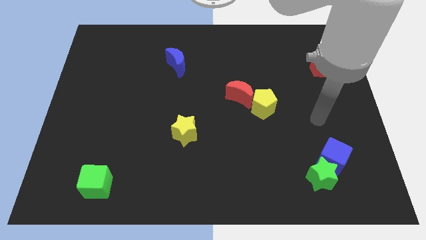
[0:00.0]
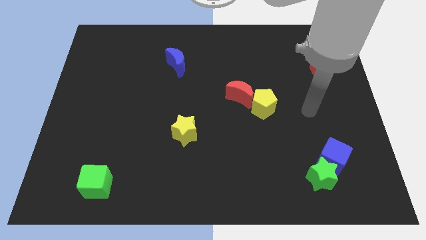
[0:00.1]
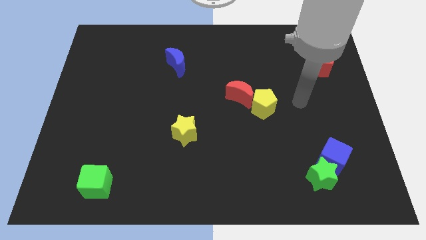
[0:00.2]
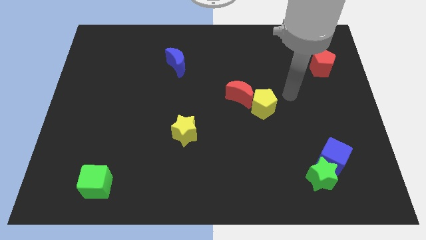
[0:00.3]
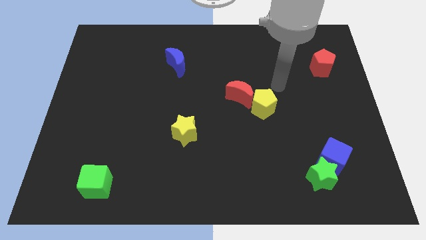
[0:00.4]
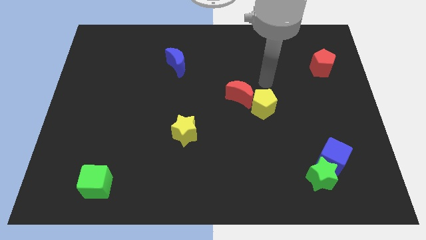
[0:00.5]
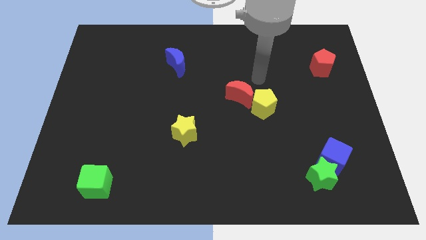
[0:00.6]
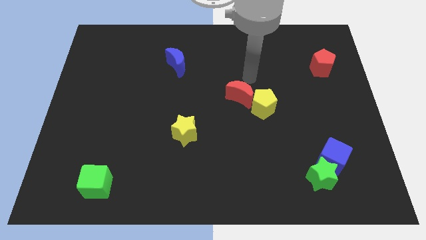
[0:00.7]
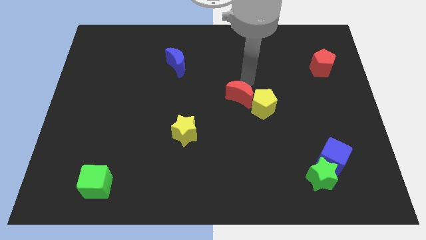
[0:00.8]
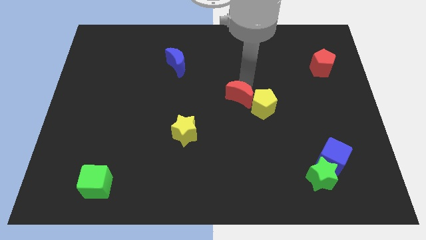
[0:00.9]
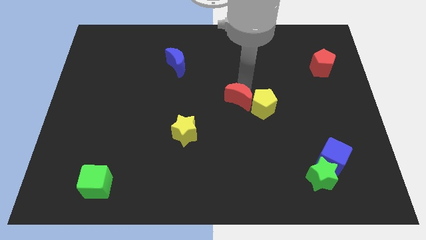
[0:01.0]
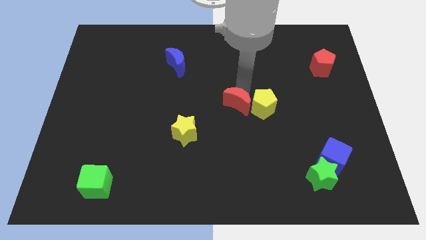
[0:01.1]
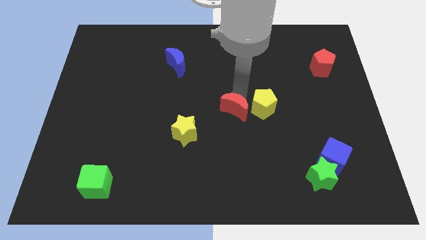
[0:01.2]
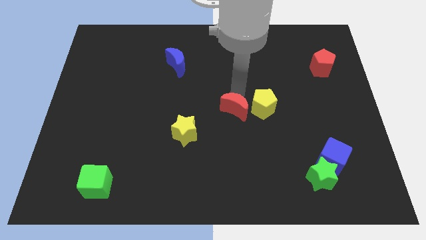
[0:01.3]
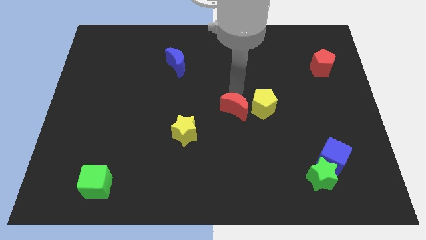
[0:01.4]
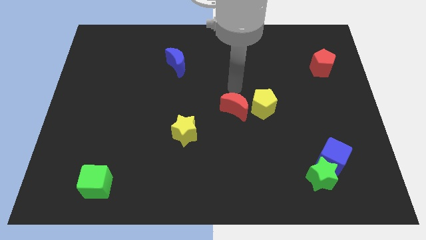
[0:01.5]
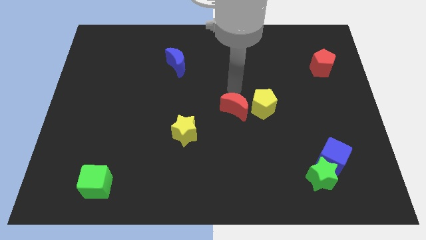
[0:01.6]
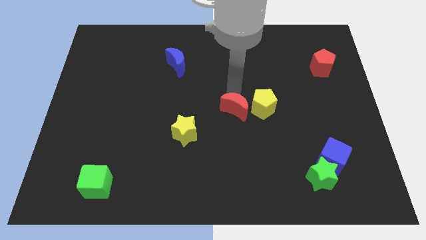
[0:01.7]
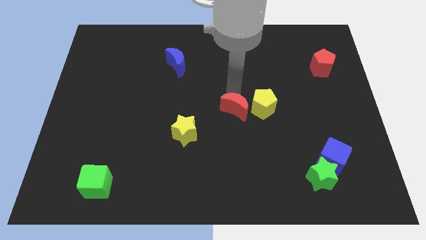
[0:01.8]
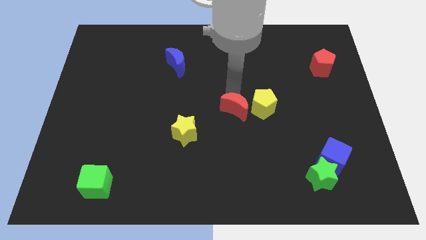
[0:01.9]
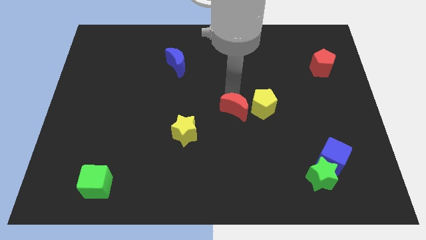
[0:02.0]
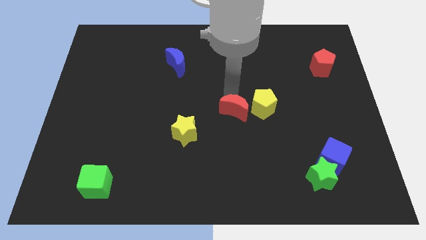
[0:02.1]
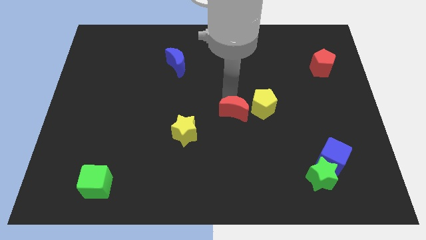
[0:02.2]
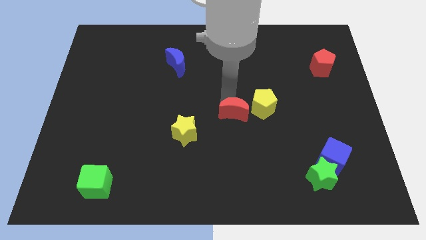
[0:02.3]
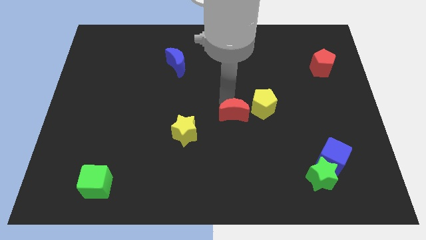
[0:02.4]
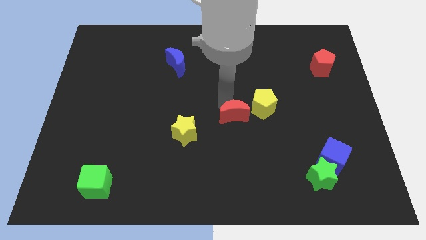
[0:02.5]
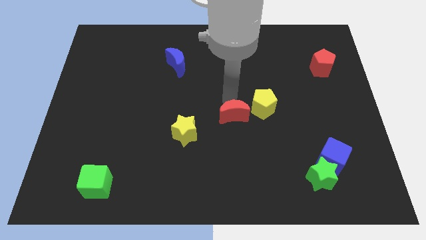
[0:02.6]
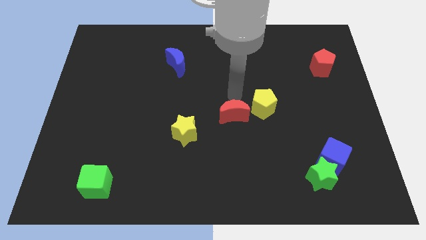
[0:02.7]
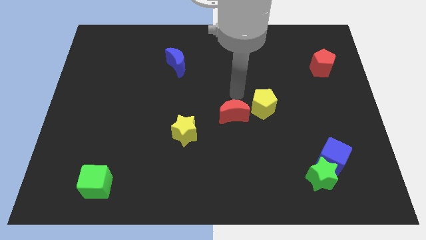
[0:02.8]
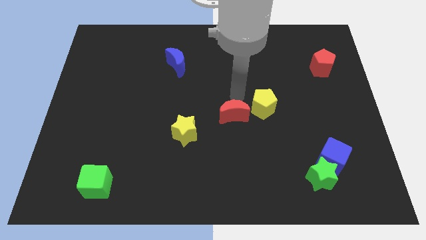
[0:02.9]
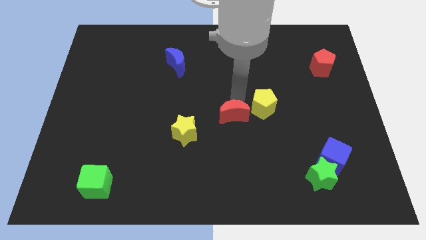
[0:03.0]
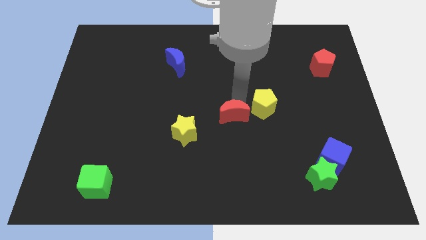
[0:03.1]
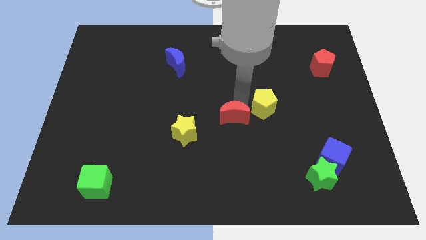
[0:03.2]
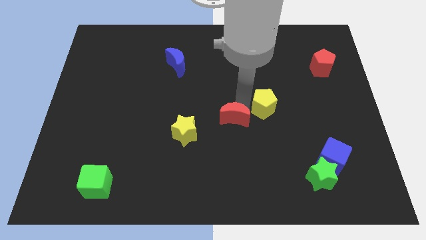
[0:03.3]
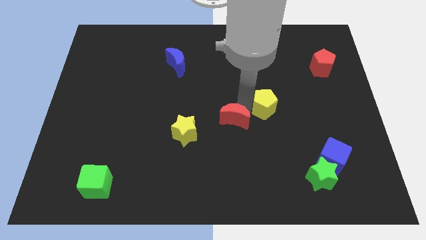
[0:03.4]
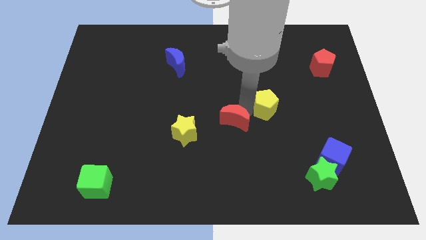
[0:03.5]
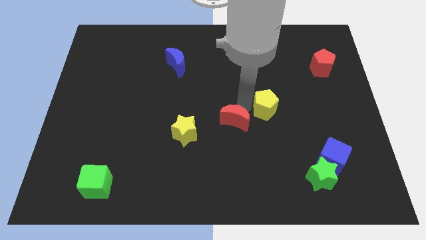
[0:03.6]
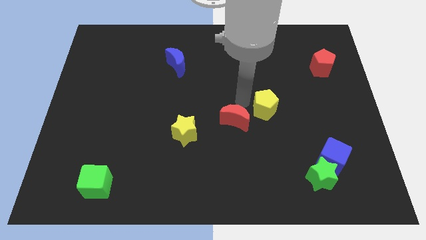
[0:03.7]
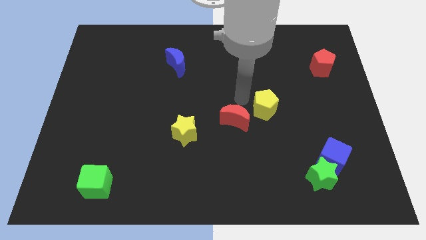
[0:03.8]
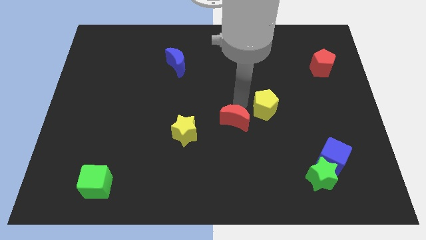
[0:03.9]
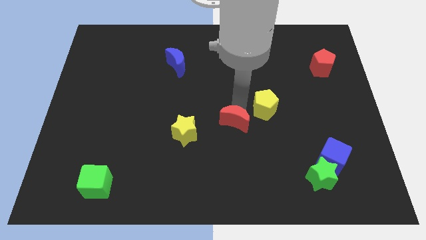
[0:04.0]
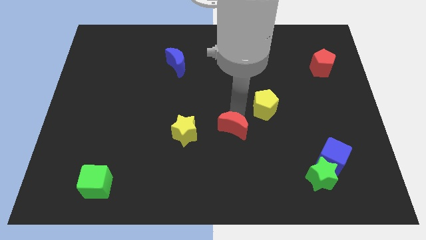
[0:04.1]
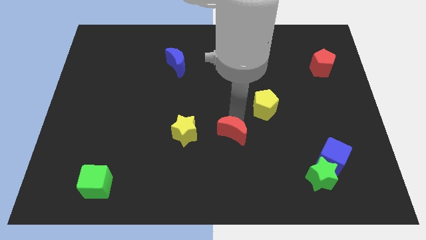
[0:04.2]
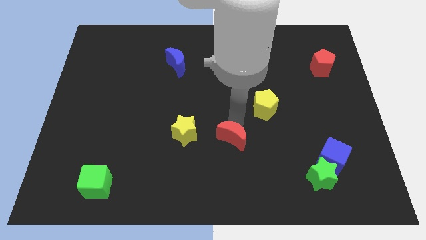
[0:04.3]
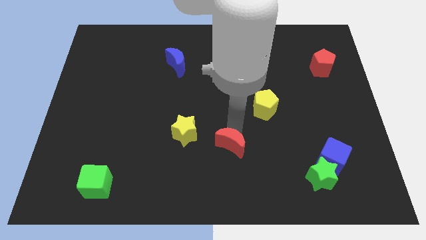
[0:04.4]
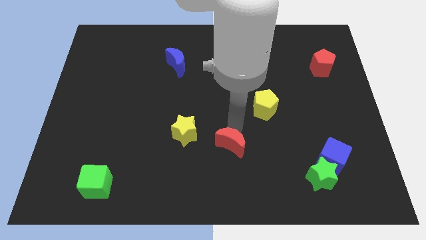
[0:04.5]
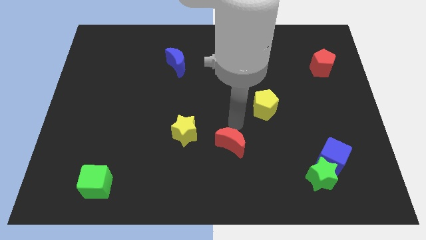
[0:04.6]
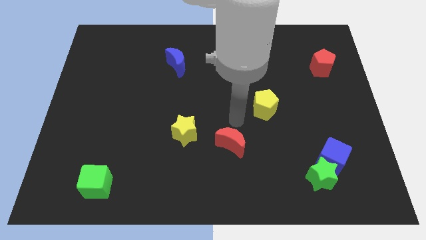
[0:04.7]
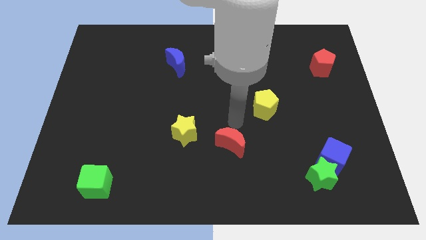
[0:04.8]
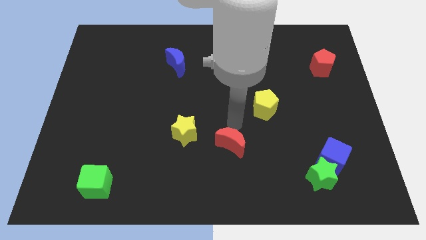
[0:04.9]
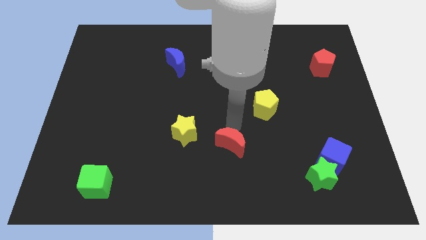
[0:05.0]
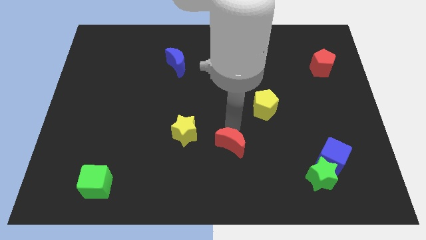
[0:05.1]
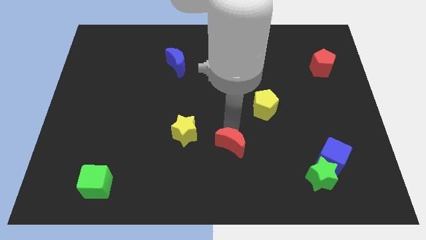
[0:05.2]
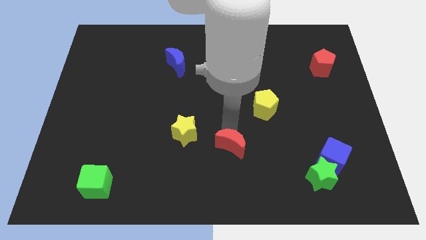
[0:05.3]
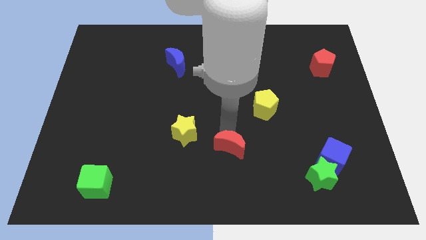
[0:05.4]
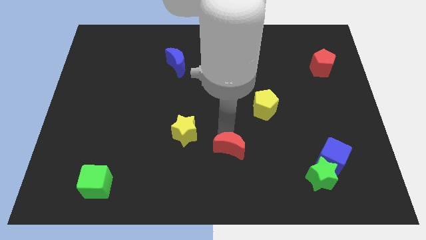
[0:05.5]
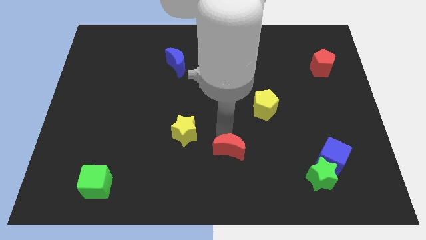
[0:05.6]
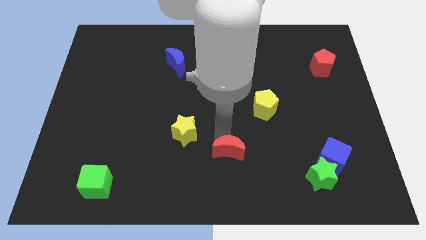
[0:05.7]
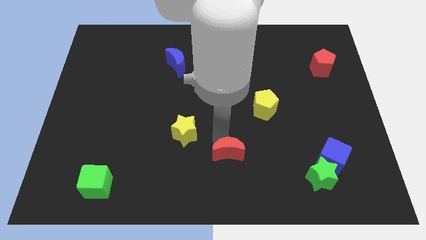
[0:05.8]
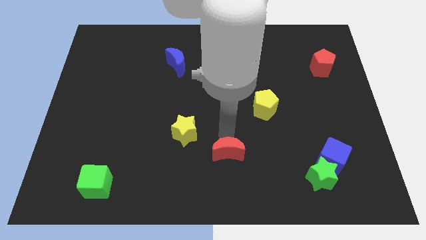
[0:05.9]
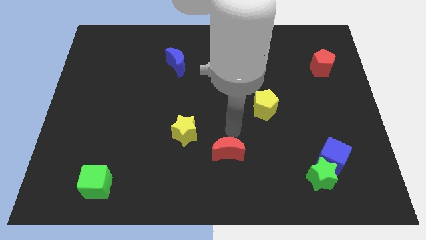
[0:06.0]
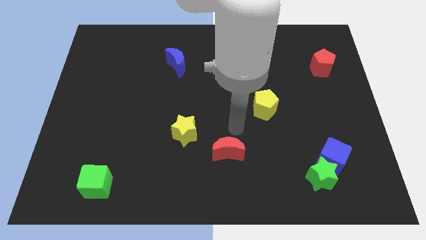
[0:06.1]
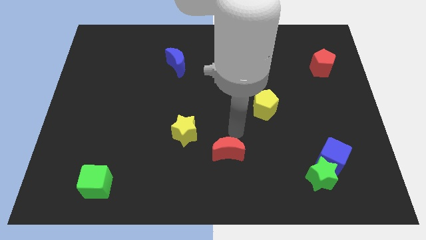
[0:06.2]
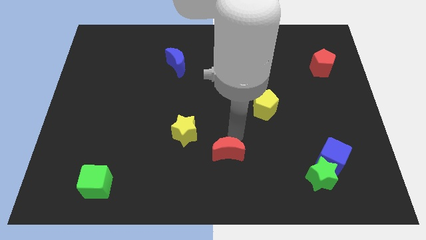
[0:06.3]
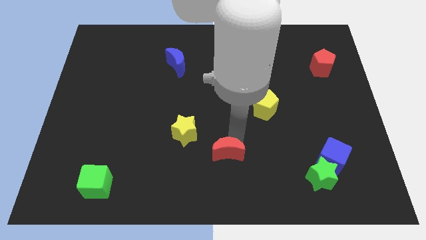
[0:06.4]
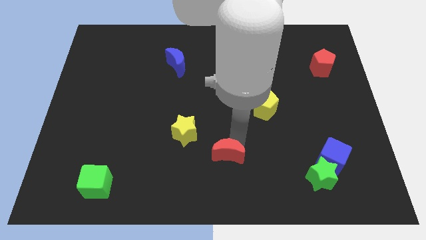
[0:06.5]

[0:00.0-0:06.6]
put the red moon to the bottom side

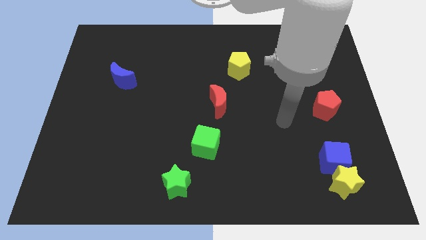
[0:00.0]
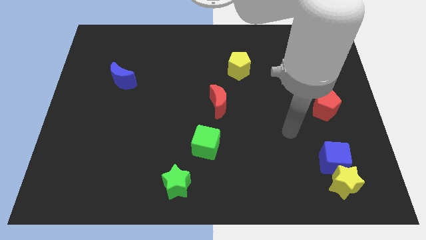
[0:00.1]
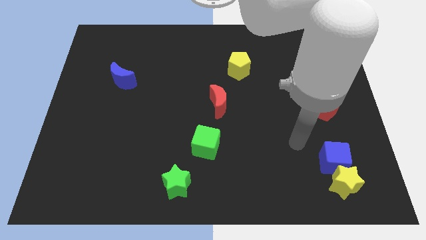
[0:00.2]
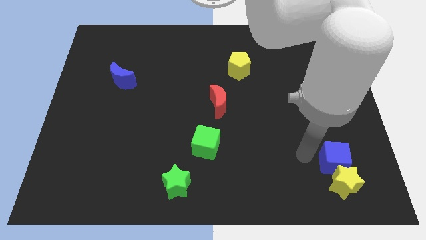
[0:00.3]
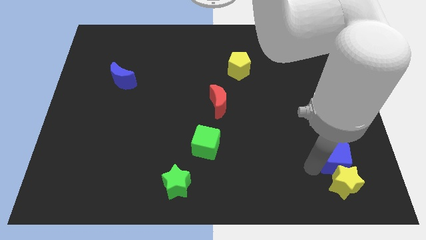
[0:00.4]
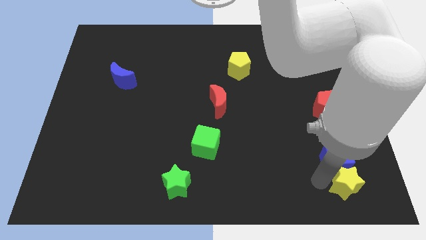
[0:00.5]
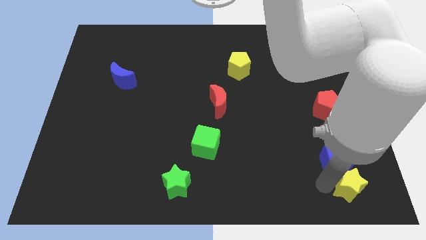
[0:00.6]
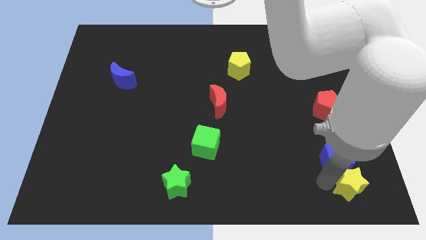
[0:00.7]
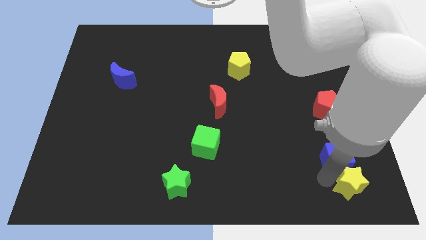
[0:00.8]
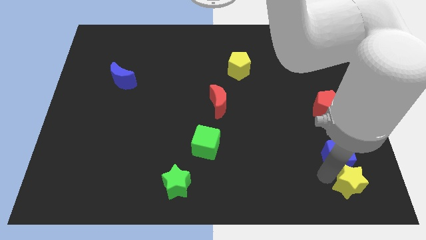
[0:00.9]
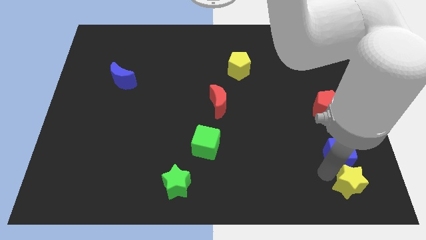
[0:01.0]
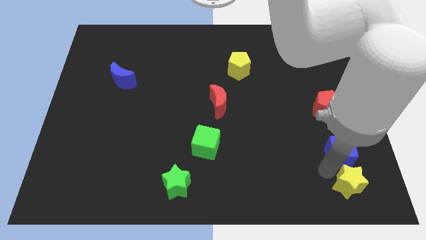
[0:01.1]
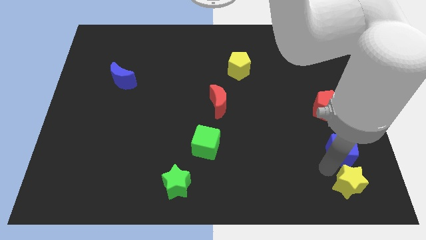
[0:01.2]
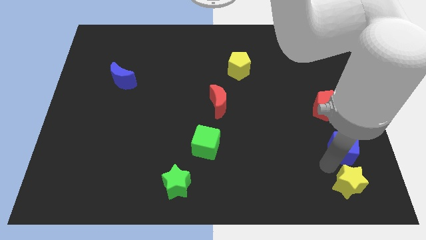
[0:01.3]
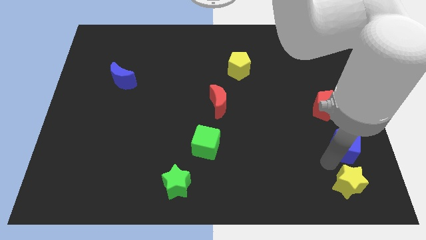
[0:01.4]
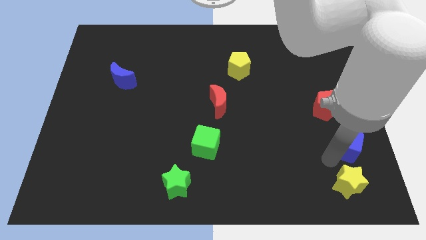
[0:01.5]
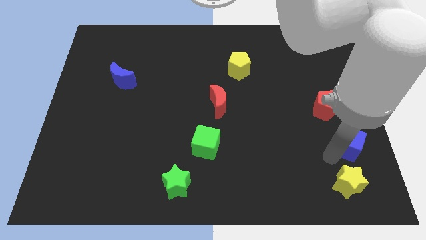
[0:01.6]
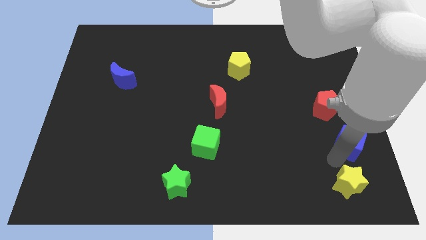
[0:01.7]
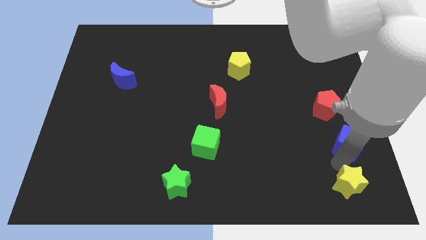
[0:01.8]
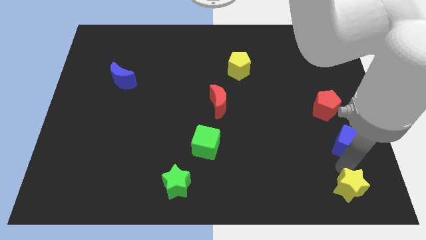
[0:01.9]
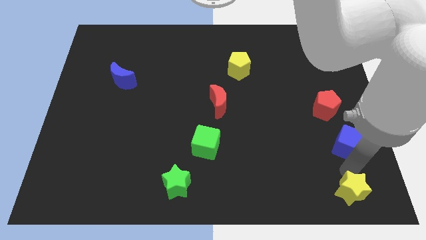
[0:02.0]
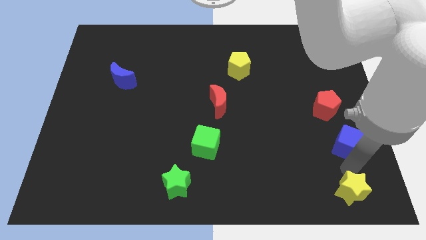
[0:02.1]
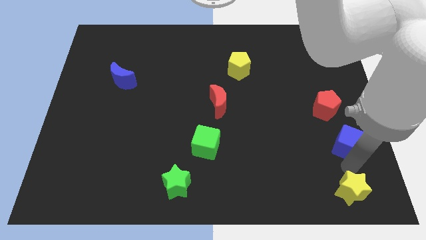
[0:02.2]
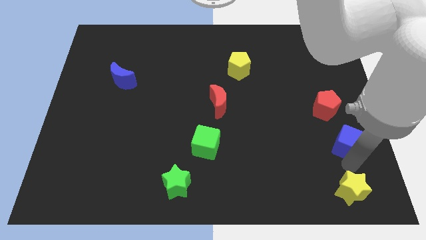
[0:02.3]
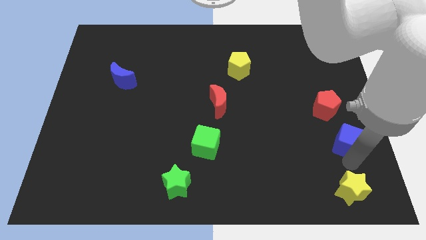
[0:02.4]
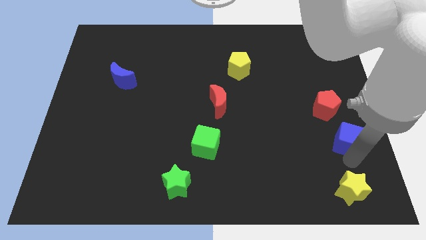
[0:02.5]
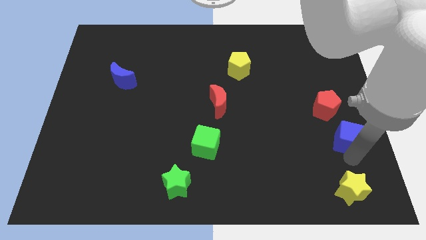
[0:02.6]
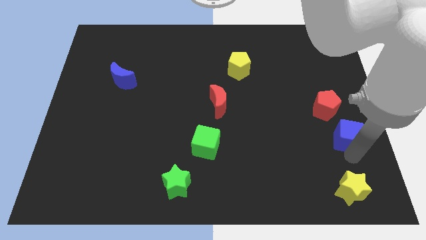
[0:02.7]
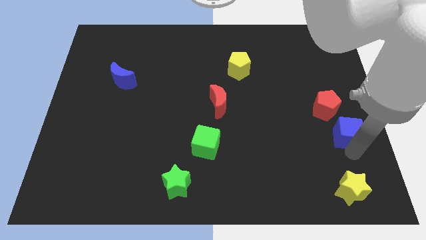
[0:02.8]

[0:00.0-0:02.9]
put the blue cube to the right side of the board
